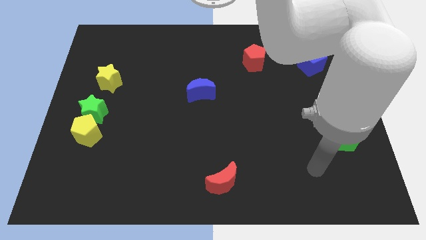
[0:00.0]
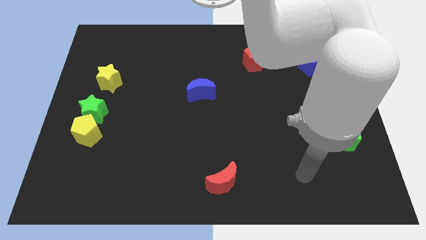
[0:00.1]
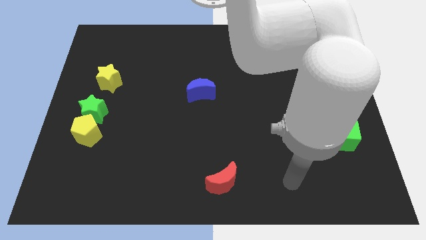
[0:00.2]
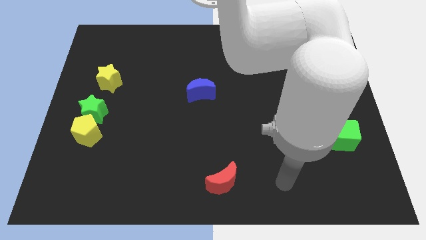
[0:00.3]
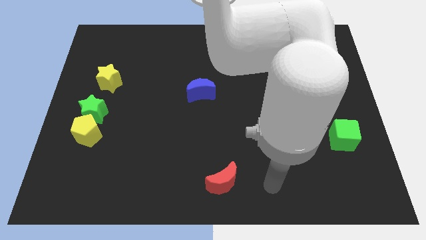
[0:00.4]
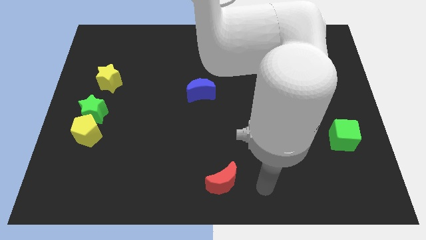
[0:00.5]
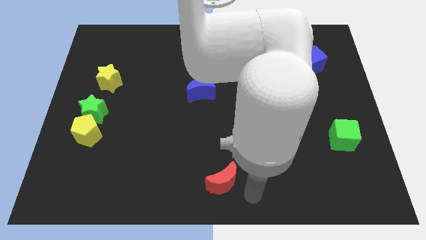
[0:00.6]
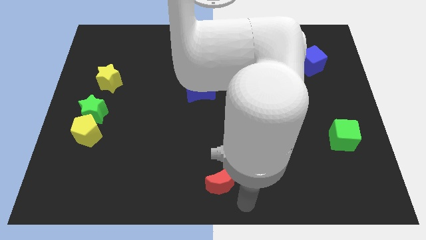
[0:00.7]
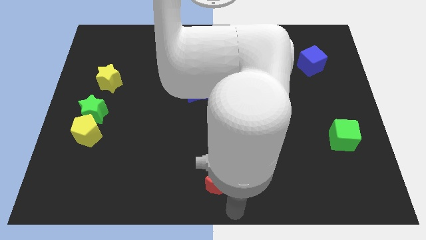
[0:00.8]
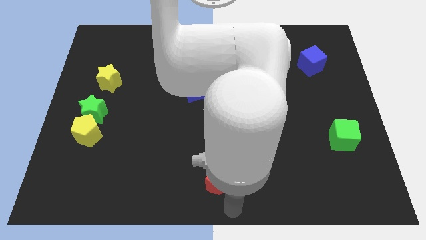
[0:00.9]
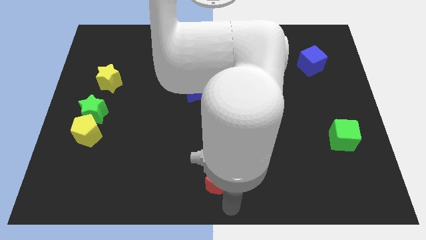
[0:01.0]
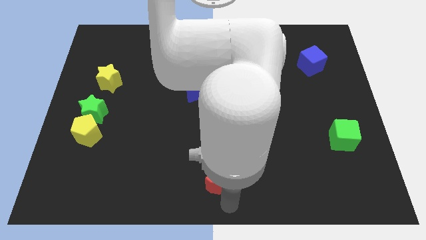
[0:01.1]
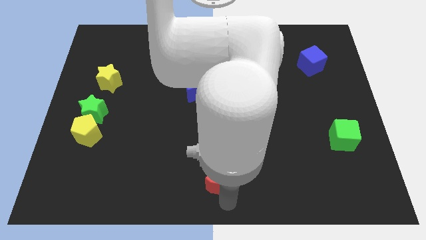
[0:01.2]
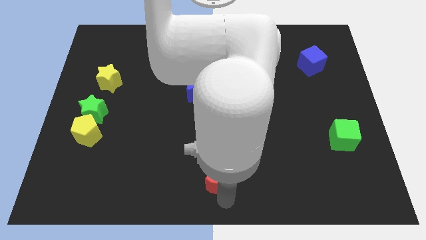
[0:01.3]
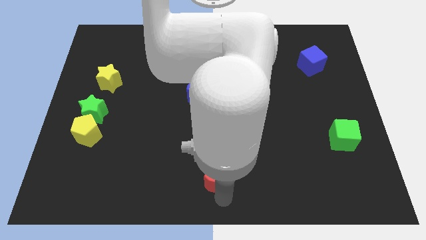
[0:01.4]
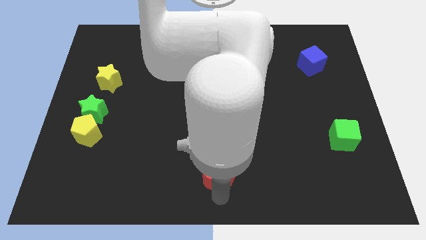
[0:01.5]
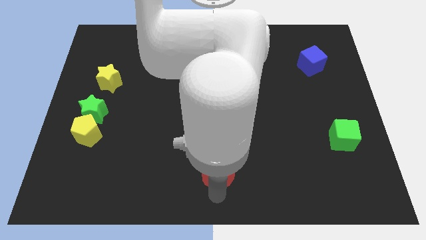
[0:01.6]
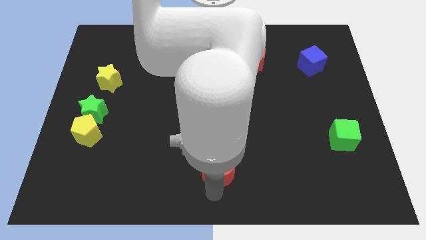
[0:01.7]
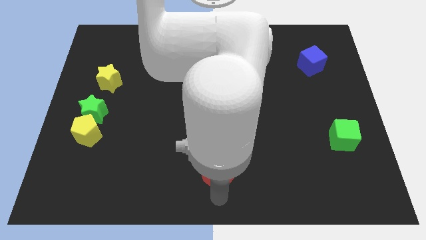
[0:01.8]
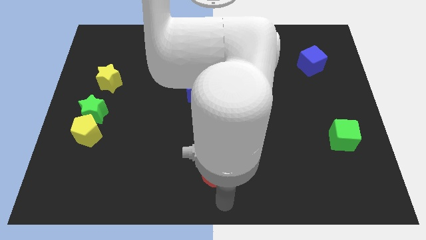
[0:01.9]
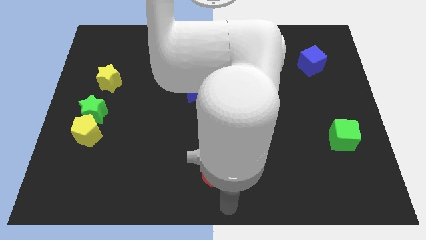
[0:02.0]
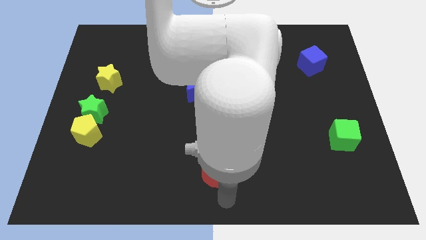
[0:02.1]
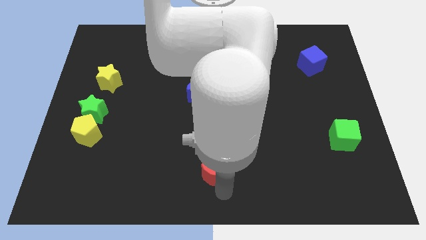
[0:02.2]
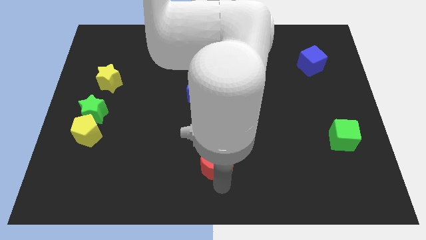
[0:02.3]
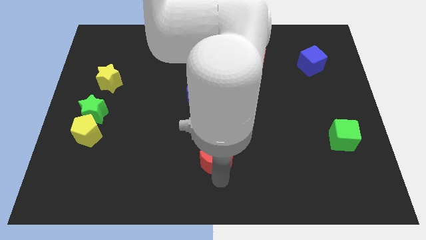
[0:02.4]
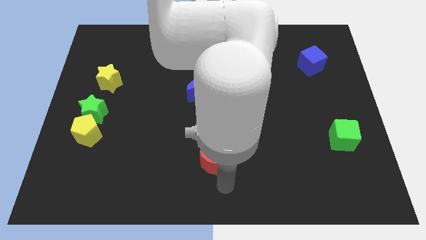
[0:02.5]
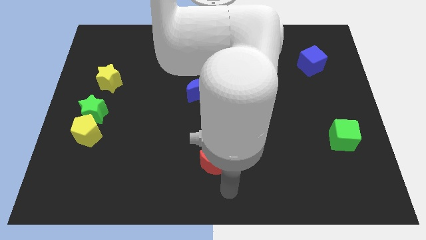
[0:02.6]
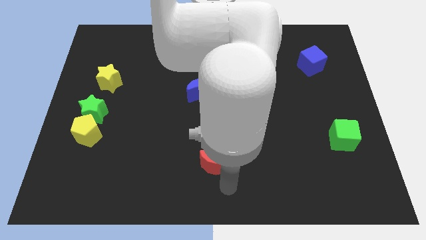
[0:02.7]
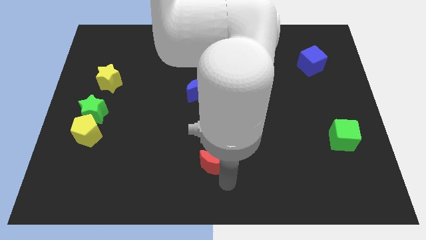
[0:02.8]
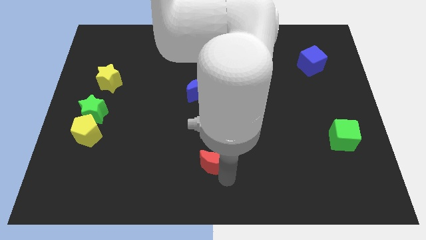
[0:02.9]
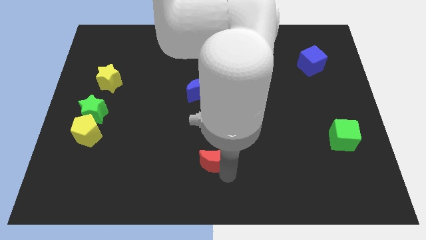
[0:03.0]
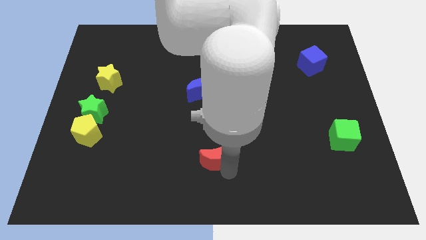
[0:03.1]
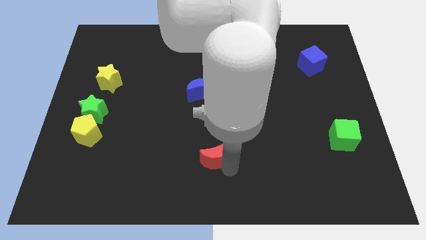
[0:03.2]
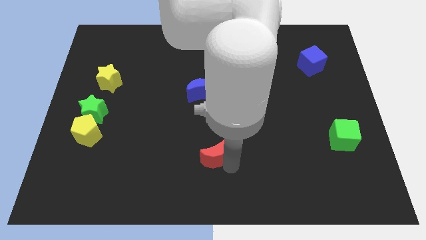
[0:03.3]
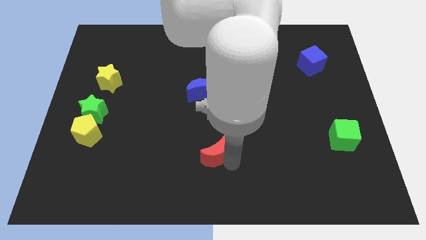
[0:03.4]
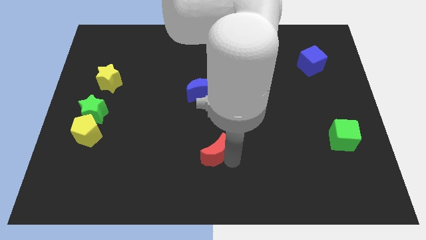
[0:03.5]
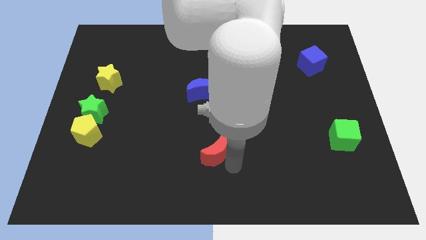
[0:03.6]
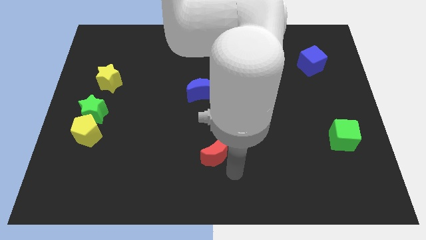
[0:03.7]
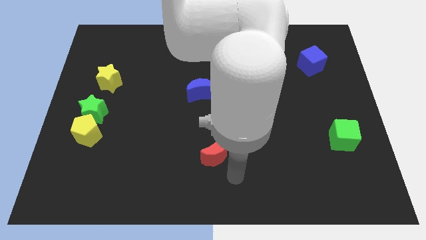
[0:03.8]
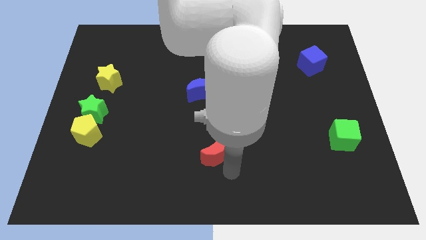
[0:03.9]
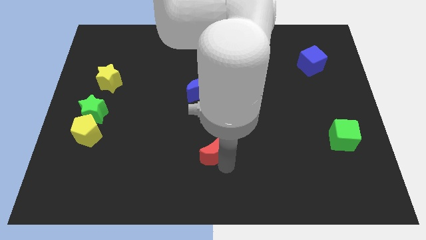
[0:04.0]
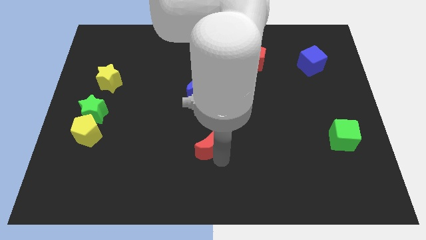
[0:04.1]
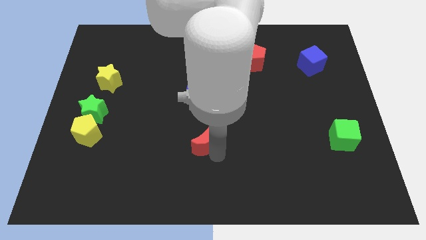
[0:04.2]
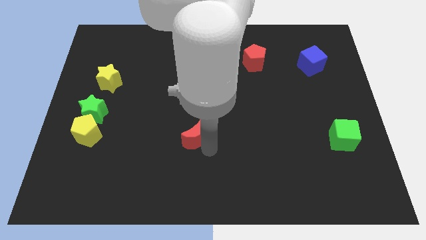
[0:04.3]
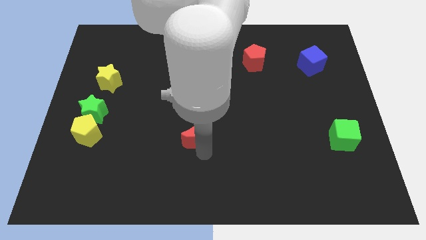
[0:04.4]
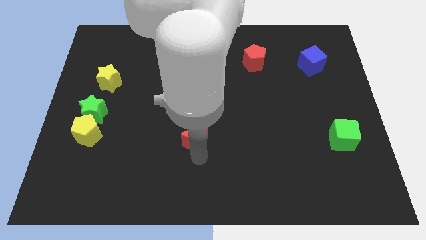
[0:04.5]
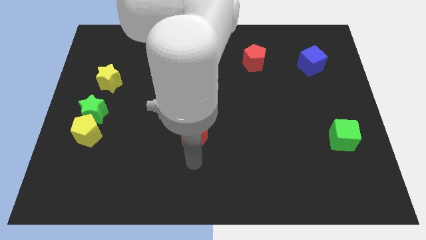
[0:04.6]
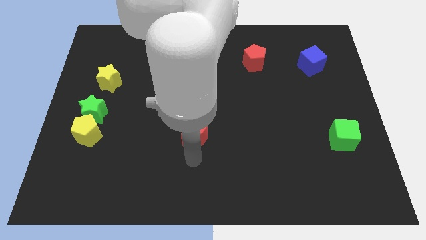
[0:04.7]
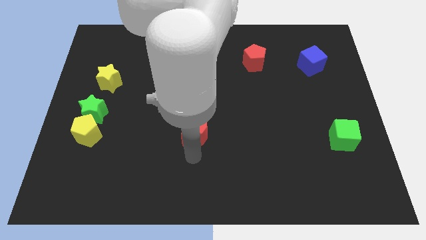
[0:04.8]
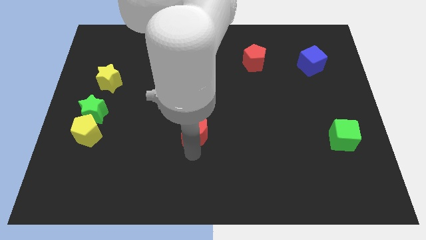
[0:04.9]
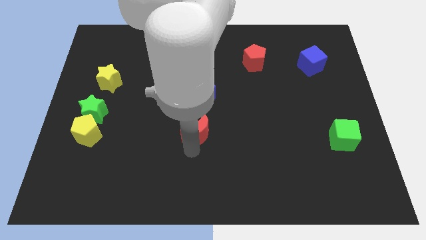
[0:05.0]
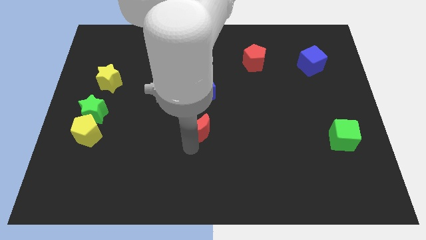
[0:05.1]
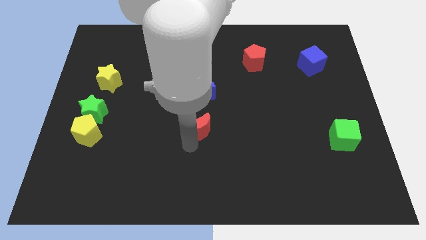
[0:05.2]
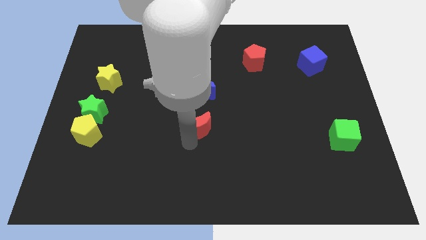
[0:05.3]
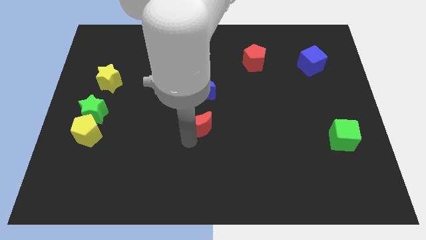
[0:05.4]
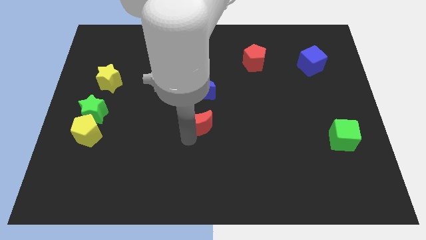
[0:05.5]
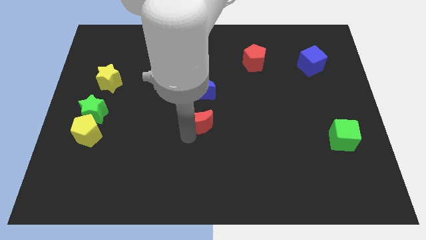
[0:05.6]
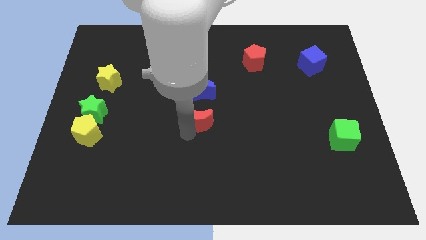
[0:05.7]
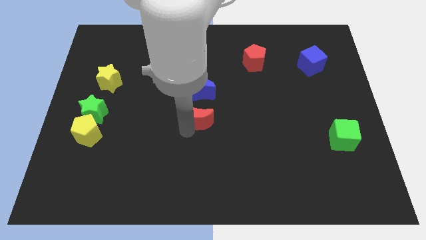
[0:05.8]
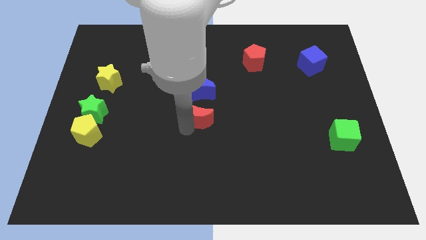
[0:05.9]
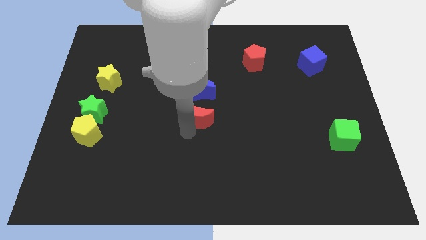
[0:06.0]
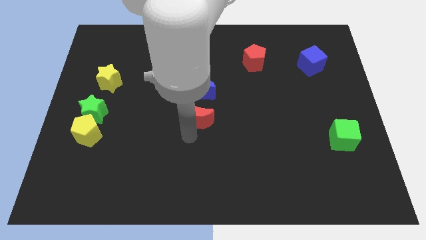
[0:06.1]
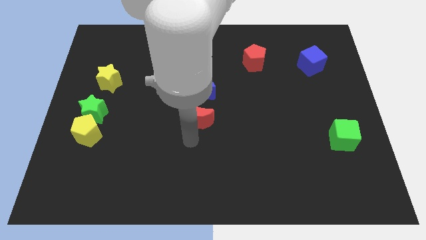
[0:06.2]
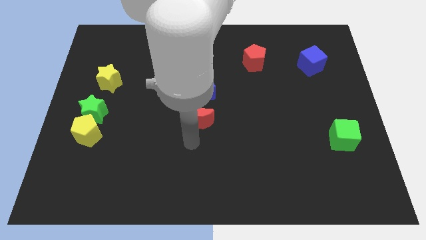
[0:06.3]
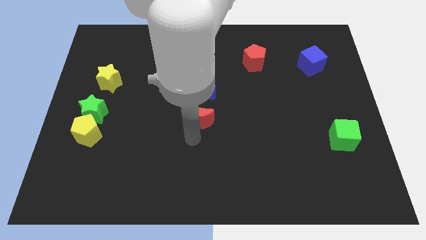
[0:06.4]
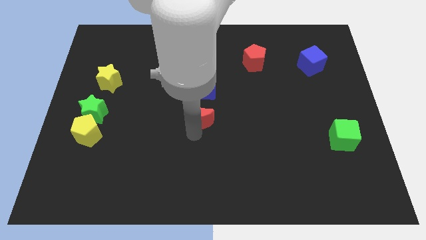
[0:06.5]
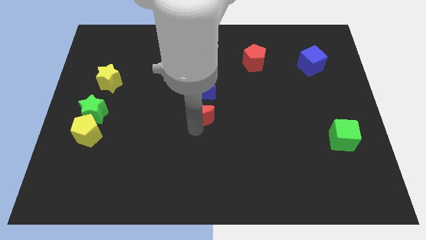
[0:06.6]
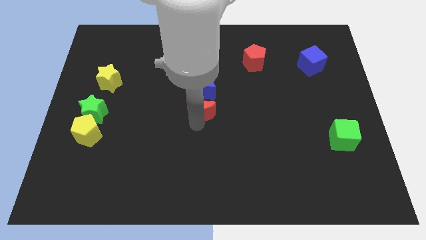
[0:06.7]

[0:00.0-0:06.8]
slide the red moon towards the blue moon
